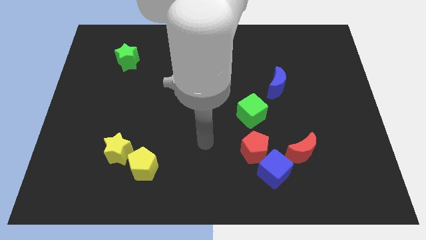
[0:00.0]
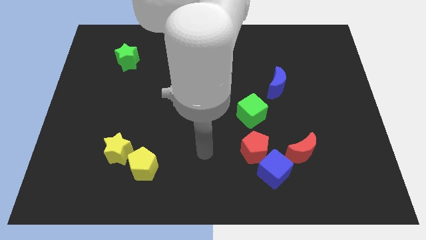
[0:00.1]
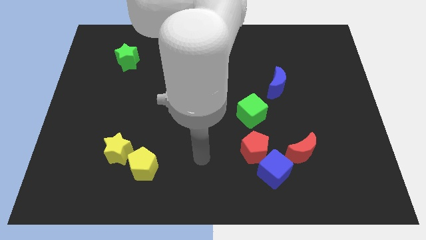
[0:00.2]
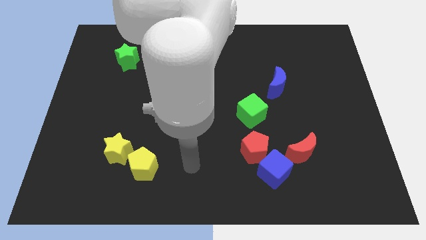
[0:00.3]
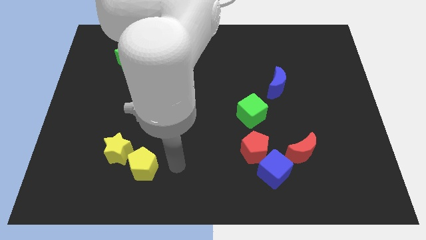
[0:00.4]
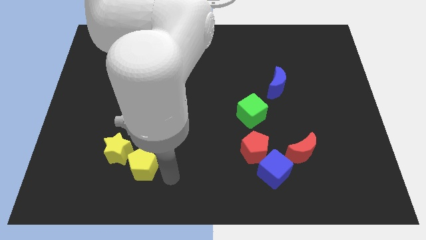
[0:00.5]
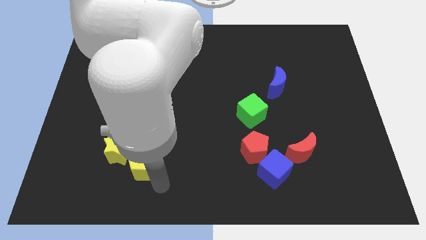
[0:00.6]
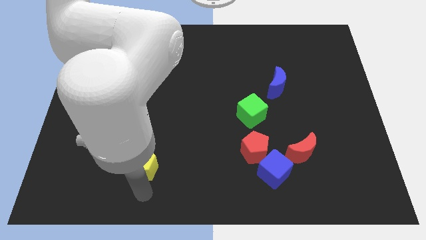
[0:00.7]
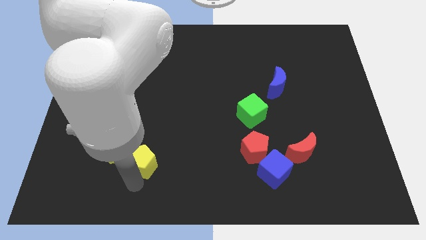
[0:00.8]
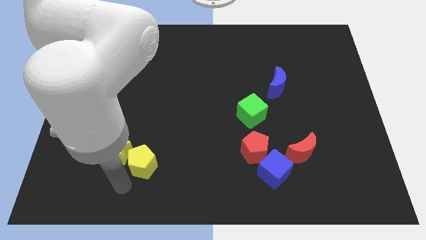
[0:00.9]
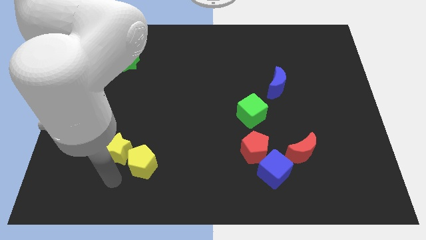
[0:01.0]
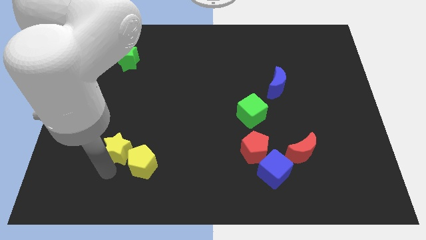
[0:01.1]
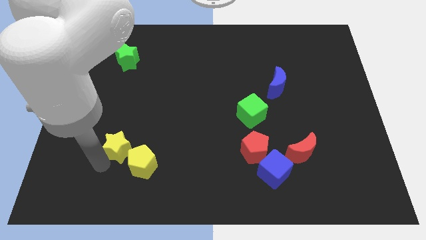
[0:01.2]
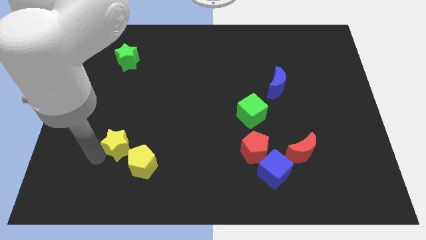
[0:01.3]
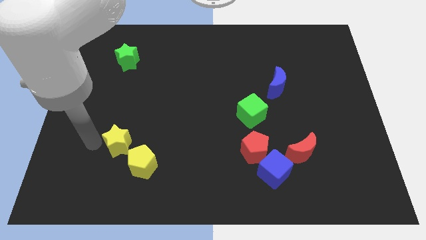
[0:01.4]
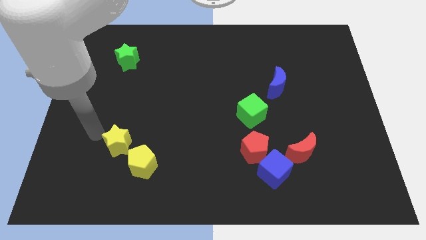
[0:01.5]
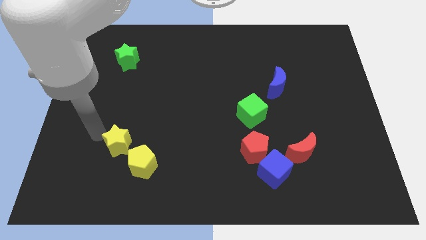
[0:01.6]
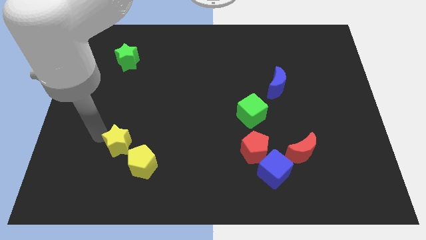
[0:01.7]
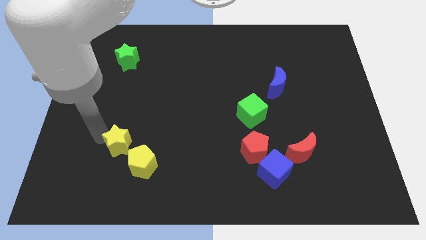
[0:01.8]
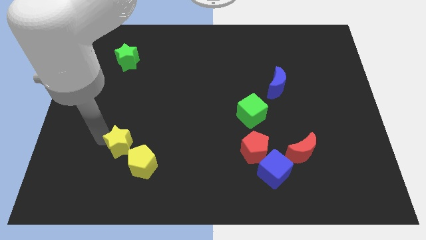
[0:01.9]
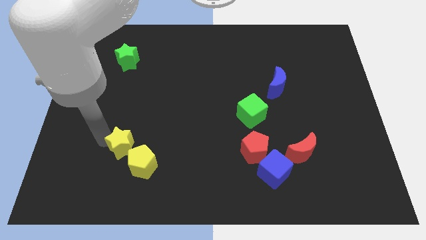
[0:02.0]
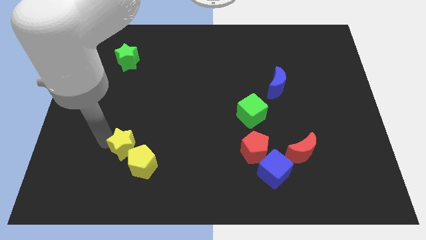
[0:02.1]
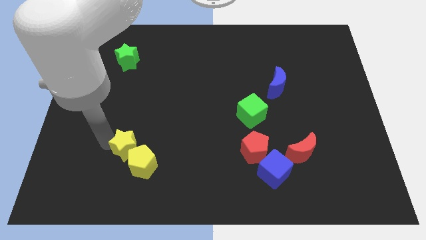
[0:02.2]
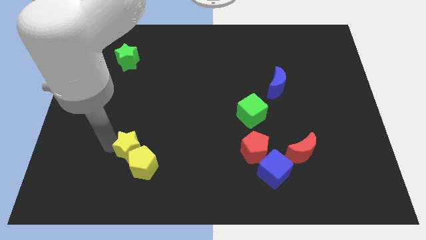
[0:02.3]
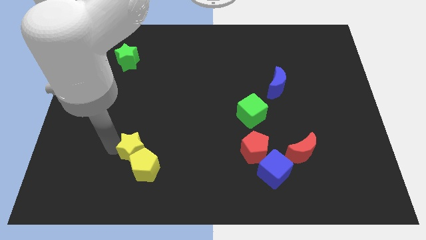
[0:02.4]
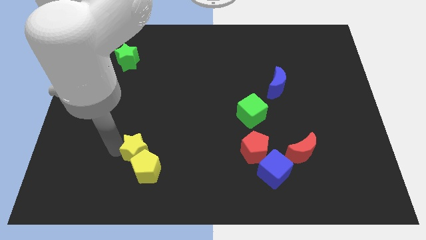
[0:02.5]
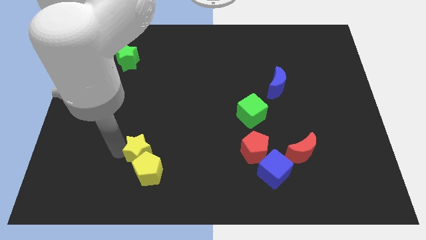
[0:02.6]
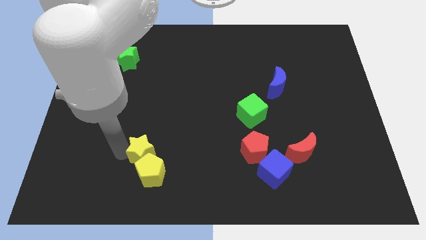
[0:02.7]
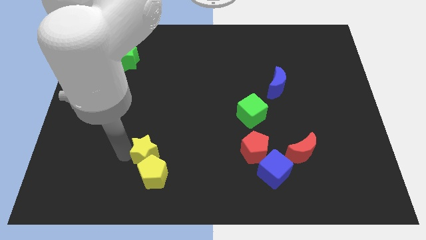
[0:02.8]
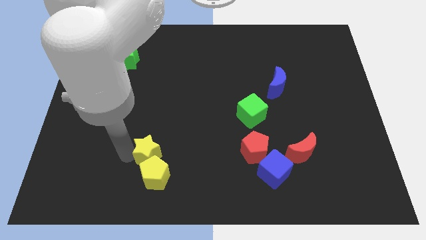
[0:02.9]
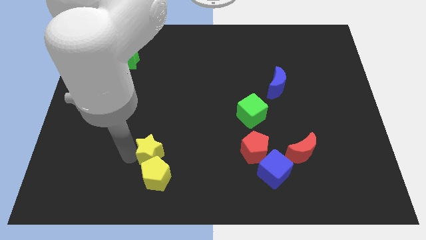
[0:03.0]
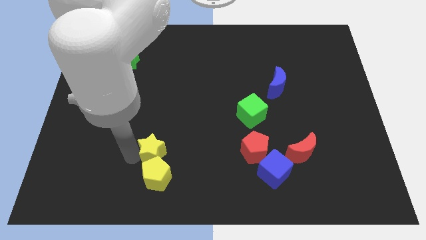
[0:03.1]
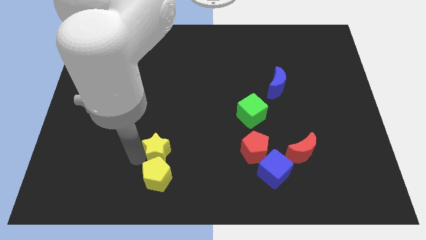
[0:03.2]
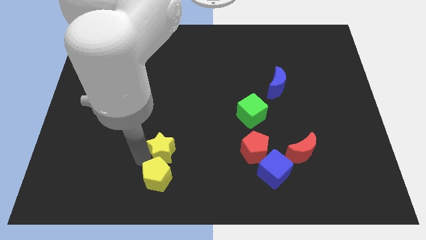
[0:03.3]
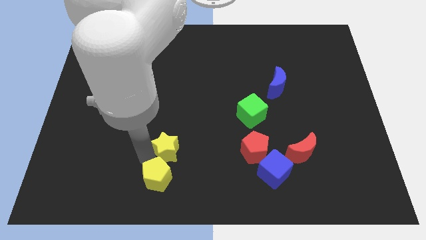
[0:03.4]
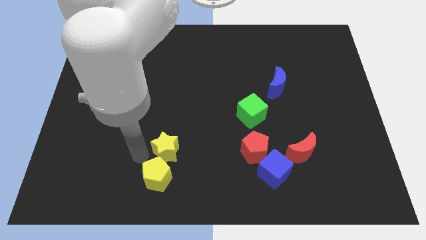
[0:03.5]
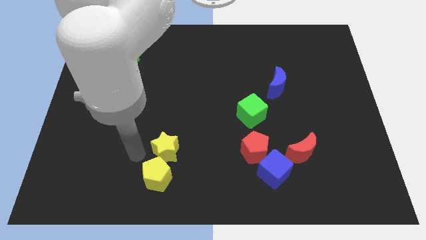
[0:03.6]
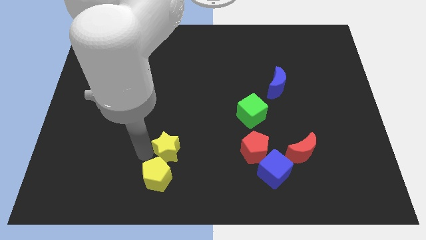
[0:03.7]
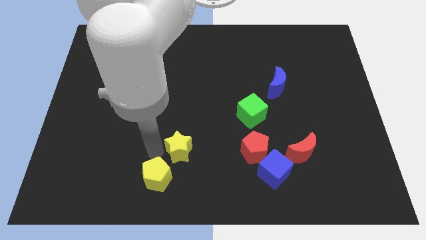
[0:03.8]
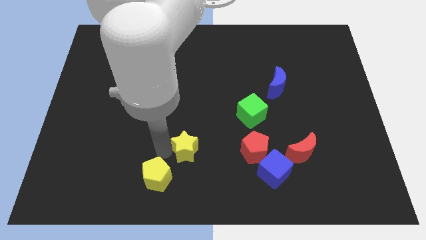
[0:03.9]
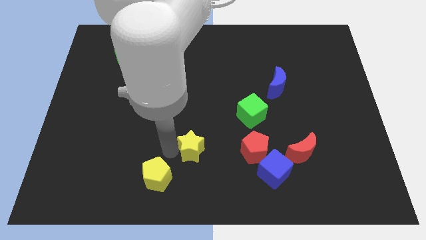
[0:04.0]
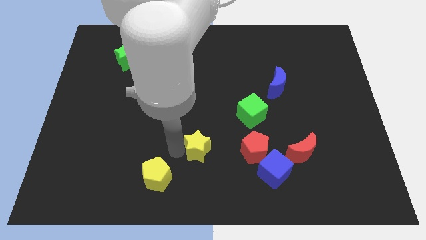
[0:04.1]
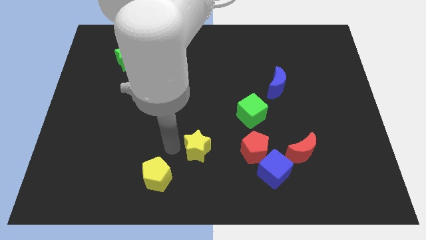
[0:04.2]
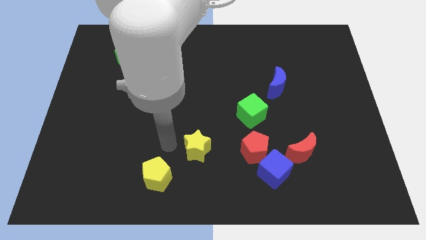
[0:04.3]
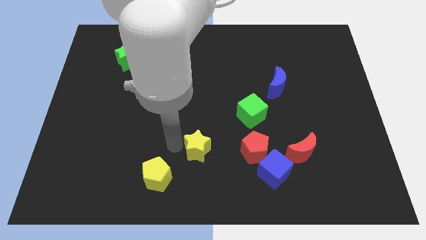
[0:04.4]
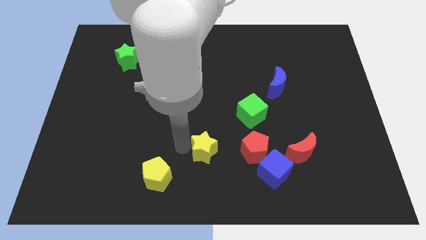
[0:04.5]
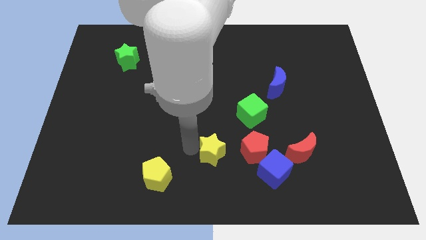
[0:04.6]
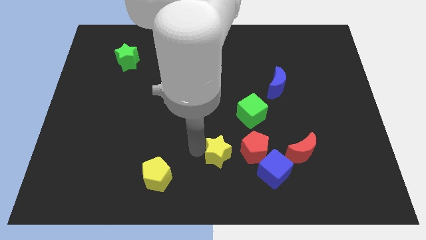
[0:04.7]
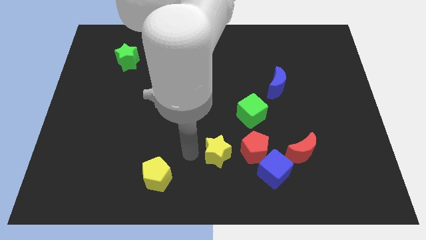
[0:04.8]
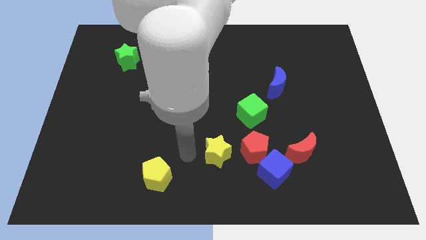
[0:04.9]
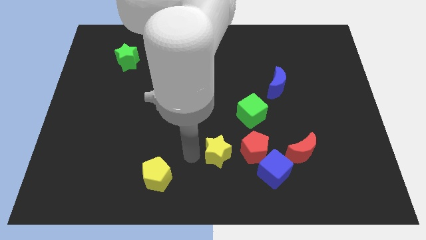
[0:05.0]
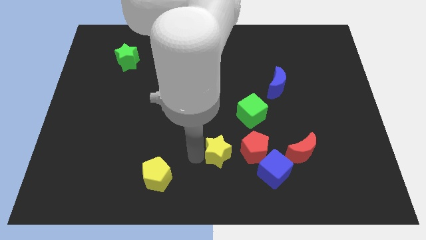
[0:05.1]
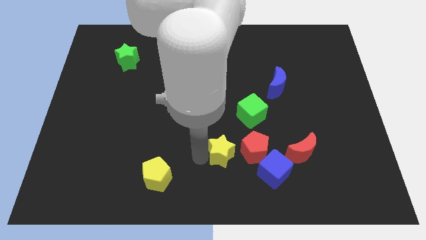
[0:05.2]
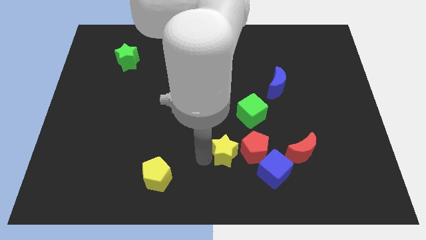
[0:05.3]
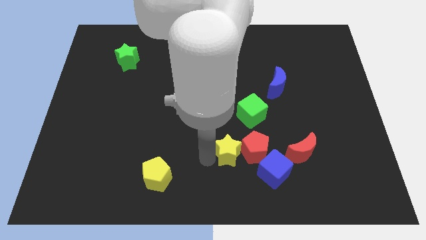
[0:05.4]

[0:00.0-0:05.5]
put the yellow star close to the red pentagon

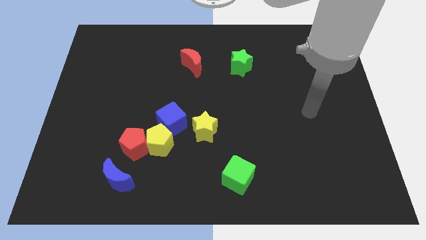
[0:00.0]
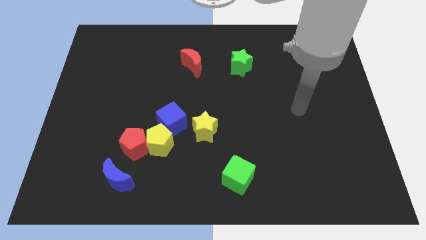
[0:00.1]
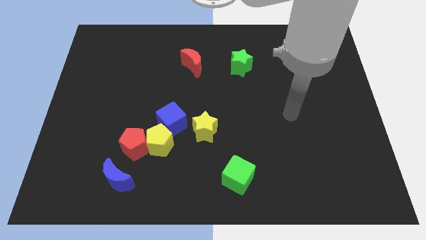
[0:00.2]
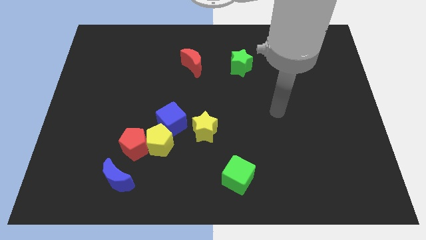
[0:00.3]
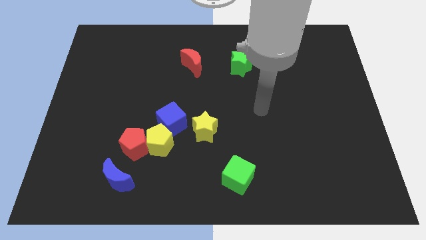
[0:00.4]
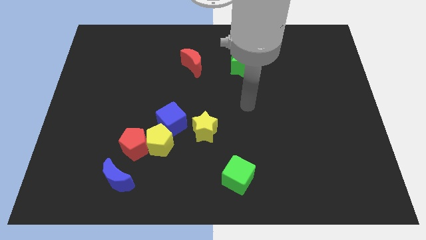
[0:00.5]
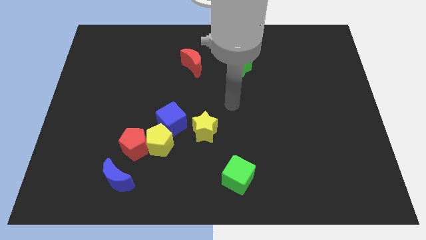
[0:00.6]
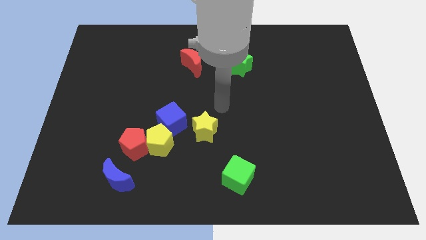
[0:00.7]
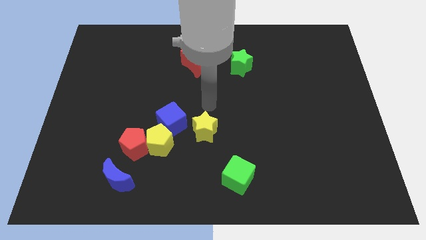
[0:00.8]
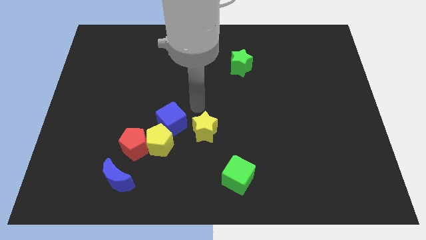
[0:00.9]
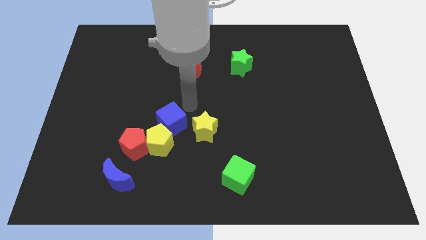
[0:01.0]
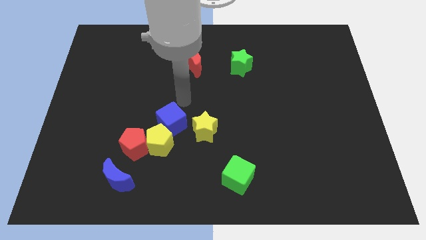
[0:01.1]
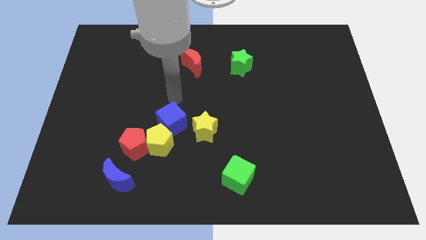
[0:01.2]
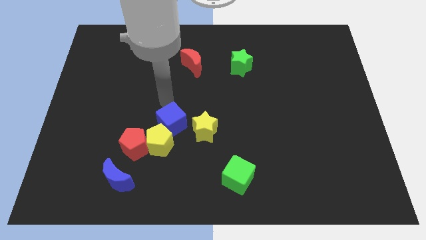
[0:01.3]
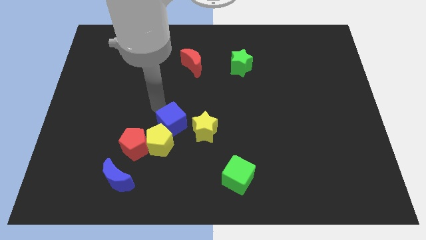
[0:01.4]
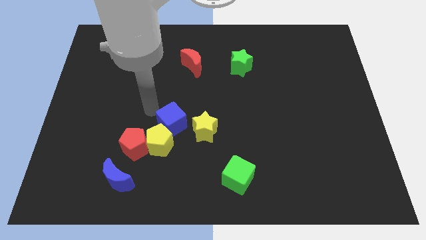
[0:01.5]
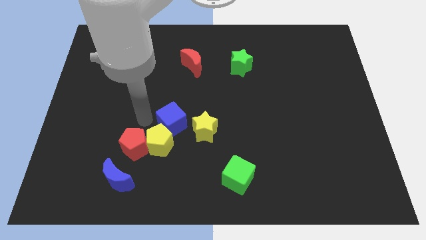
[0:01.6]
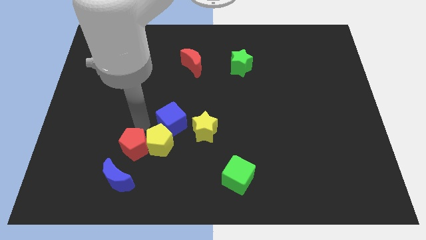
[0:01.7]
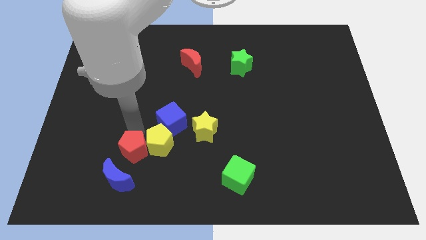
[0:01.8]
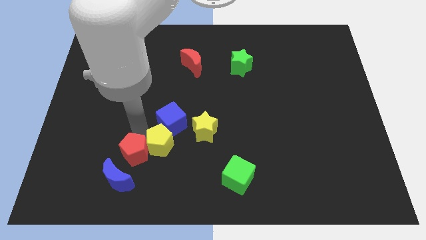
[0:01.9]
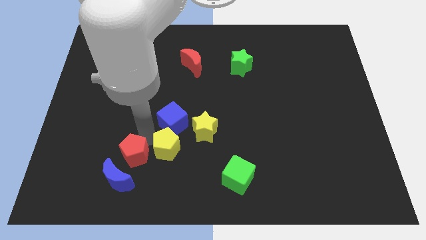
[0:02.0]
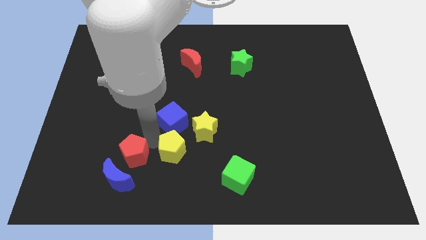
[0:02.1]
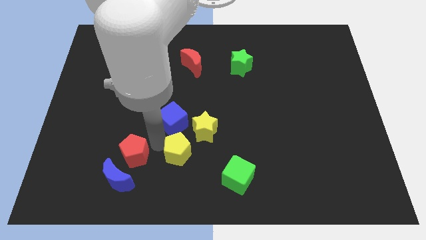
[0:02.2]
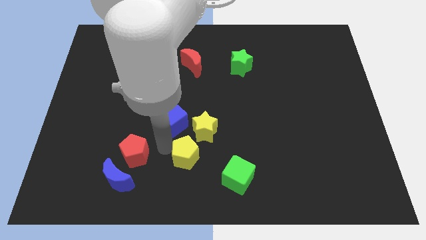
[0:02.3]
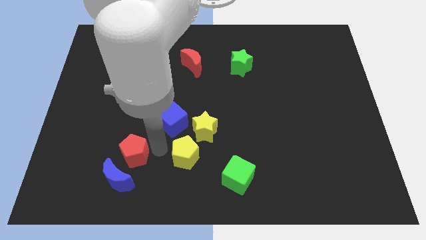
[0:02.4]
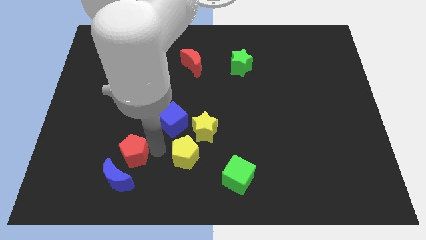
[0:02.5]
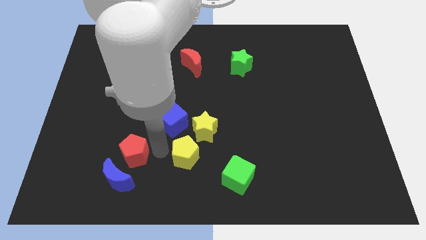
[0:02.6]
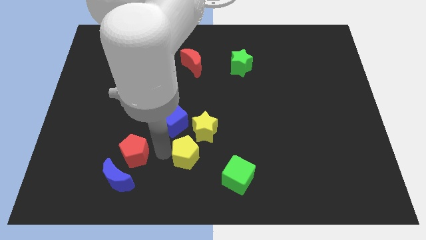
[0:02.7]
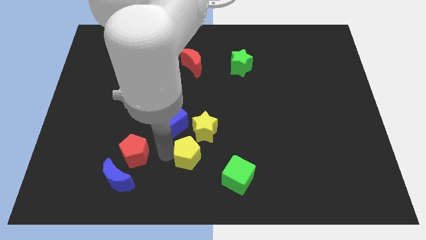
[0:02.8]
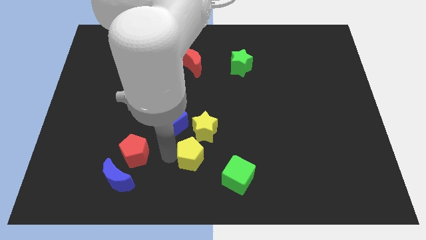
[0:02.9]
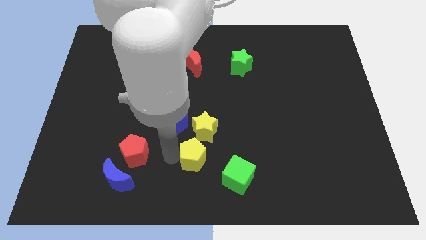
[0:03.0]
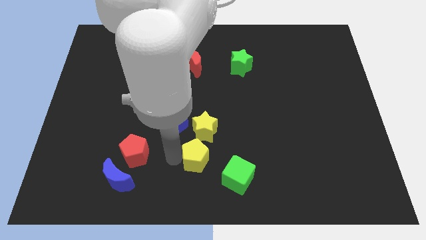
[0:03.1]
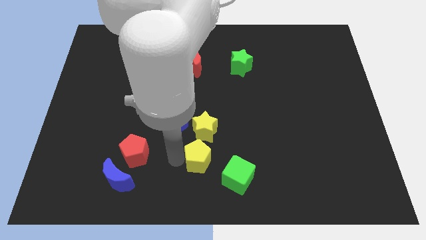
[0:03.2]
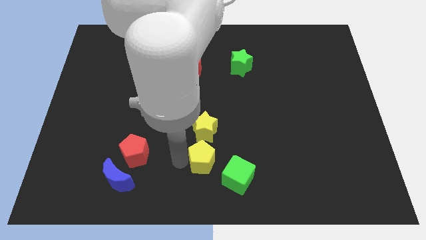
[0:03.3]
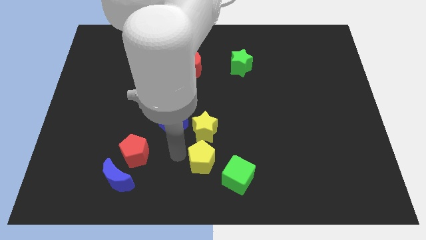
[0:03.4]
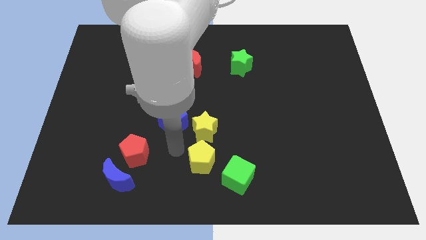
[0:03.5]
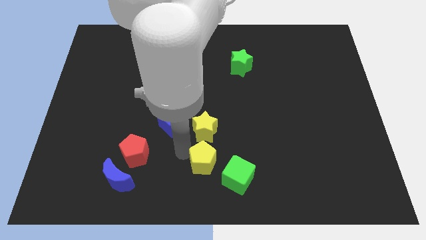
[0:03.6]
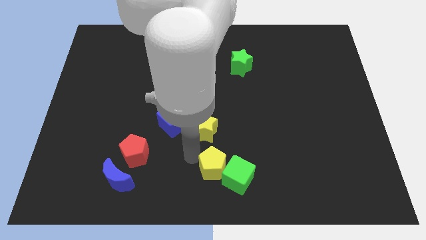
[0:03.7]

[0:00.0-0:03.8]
move the yellow pentagon close to the green cube
